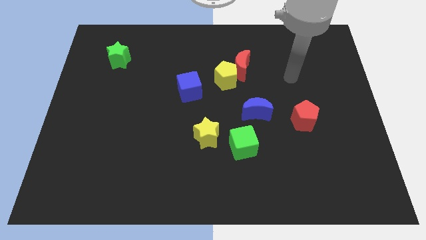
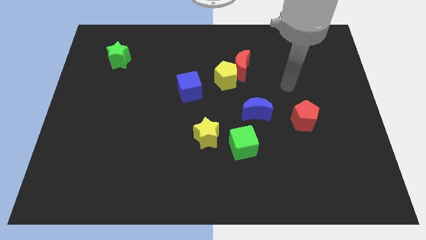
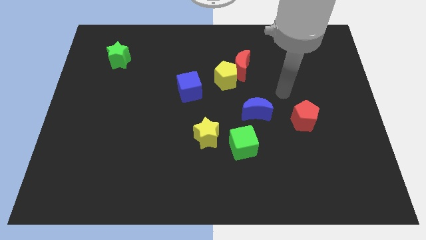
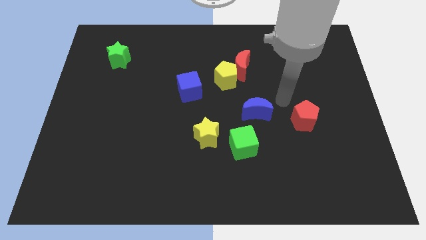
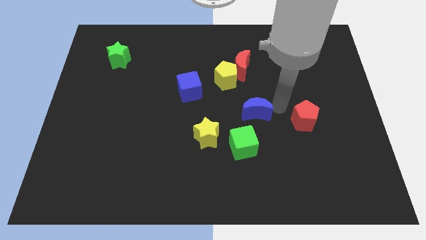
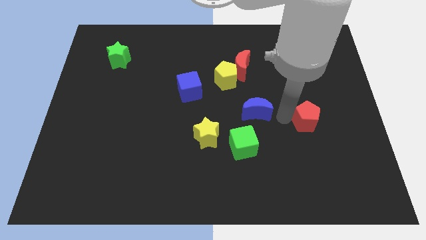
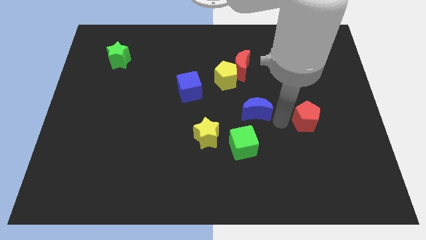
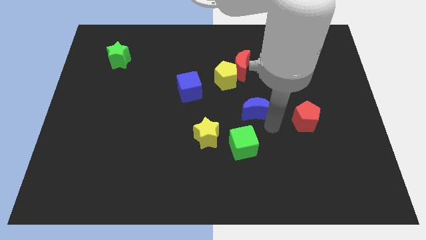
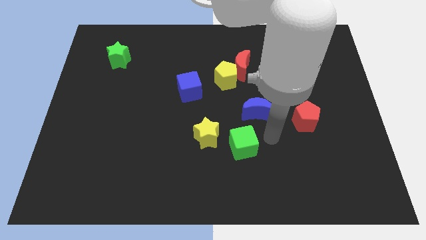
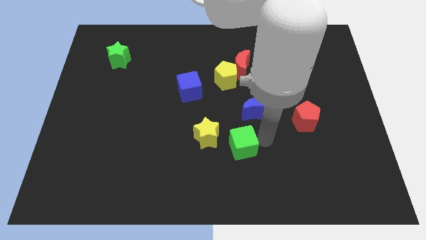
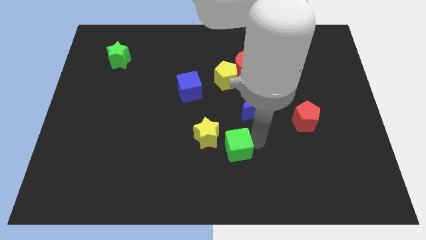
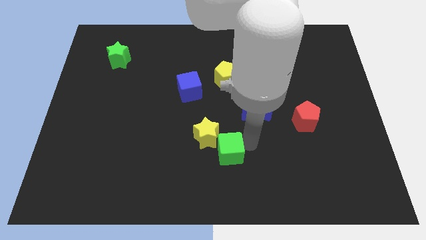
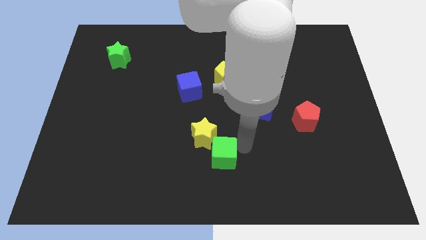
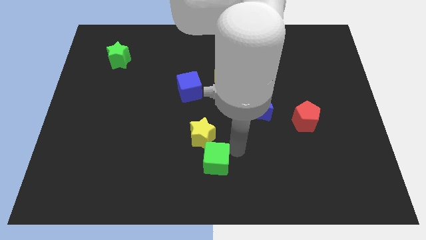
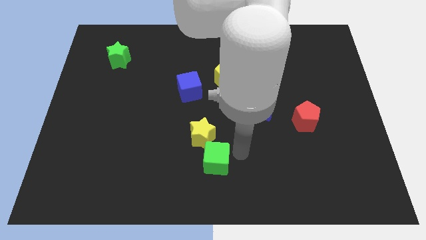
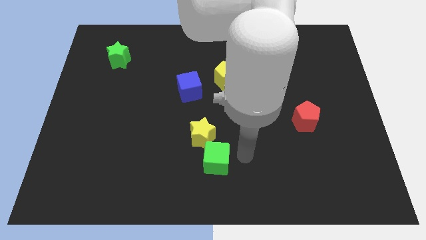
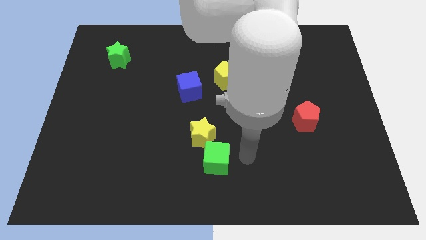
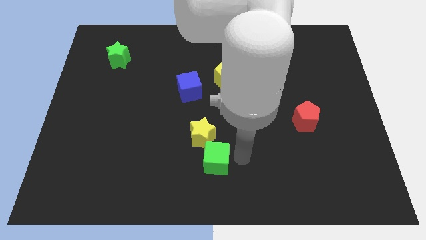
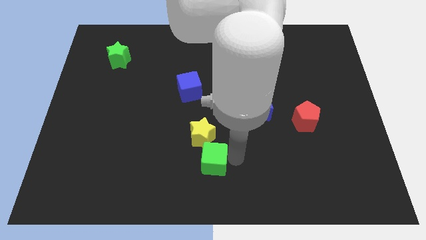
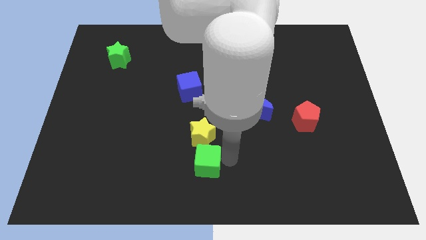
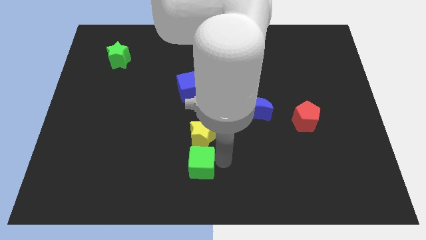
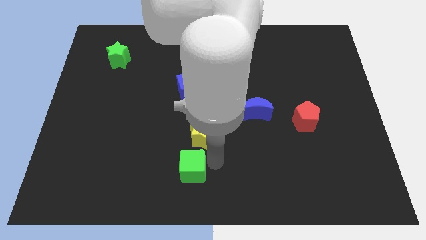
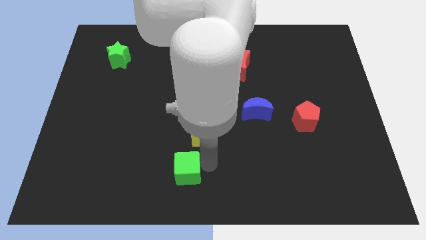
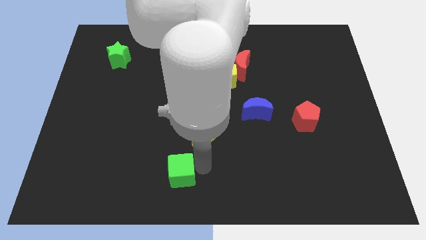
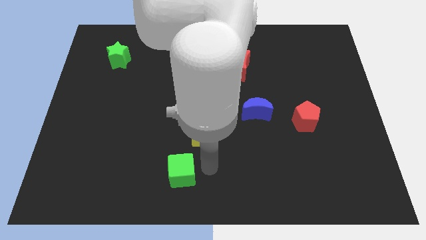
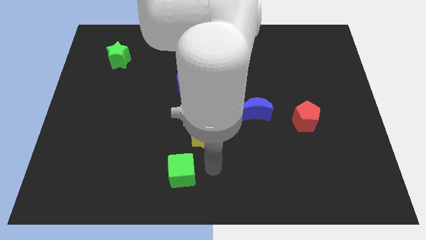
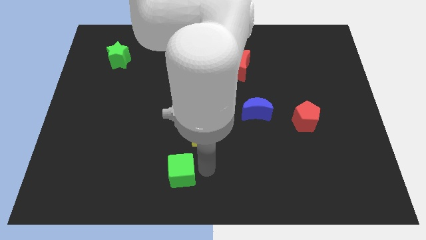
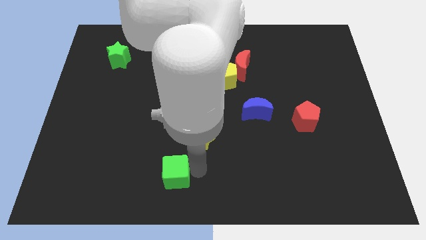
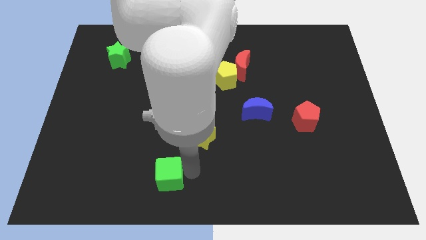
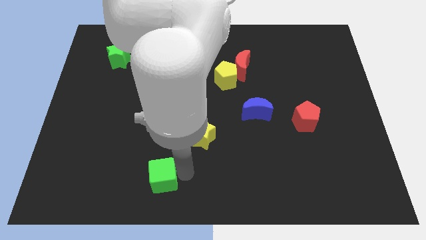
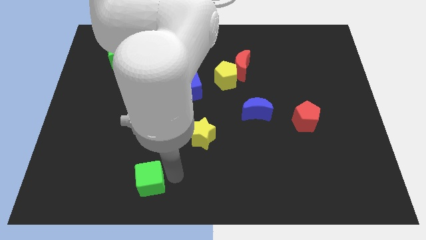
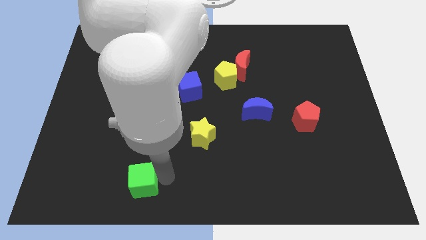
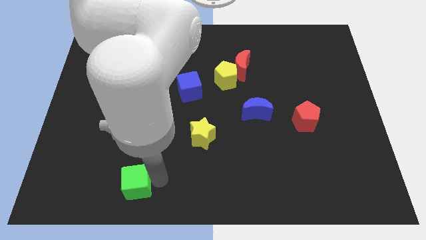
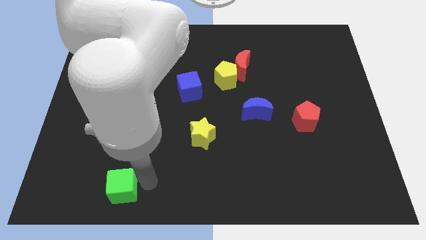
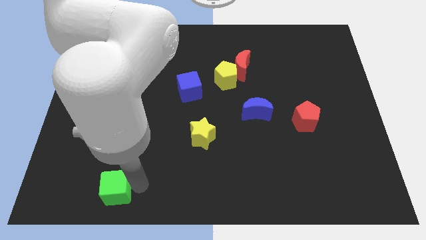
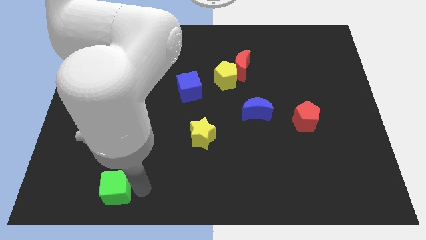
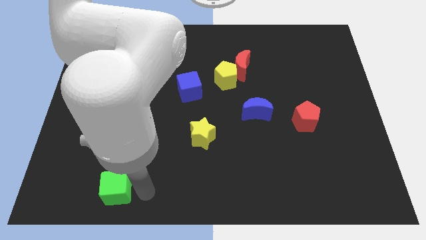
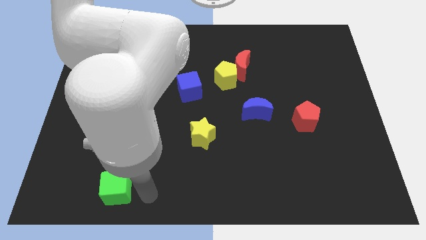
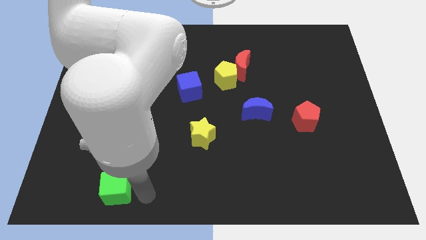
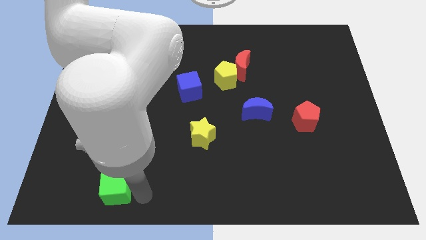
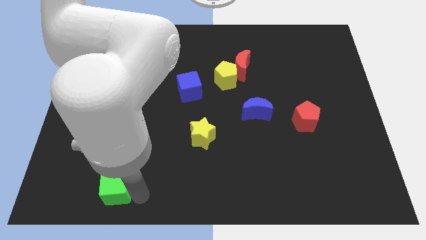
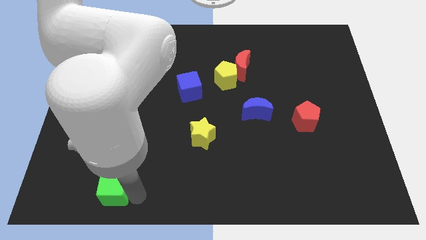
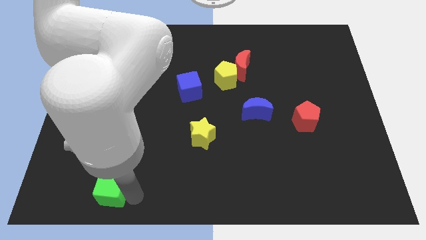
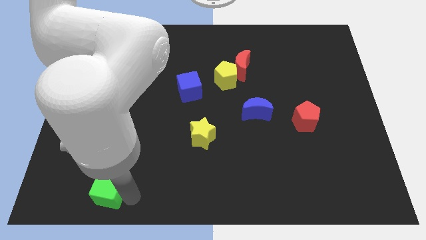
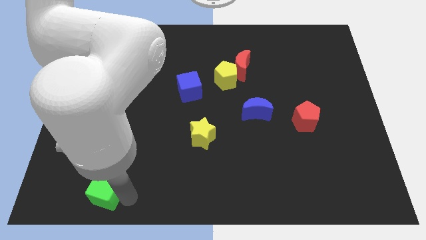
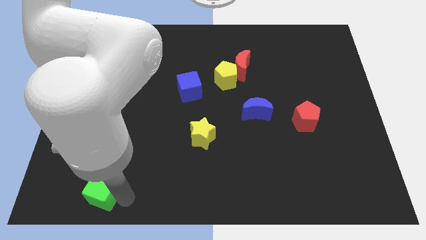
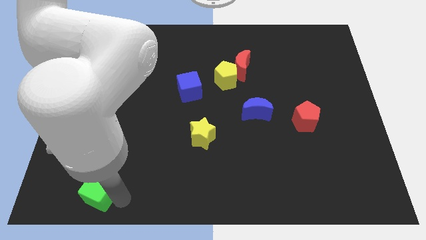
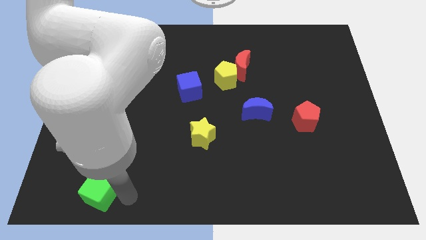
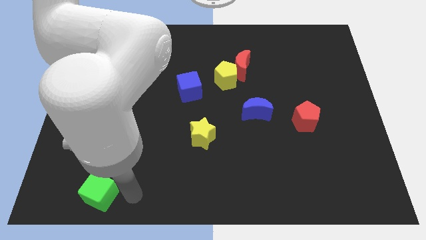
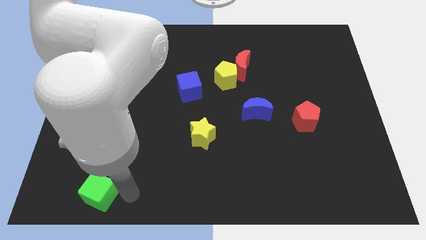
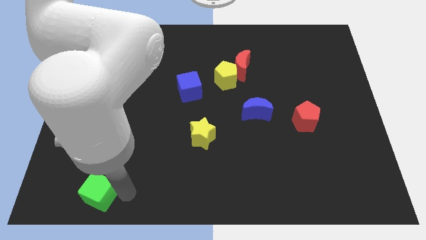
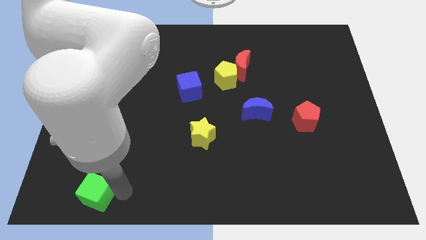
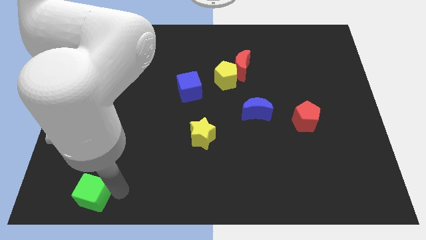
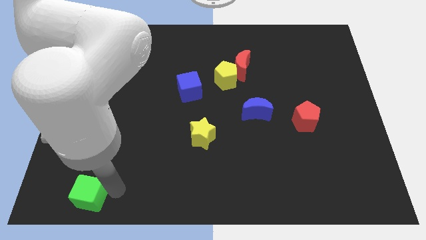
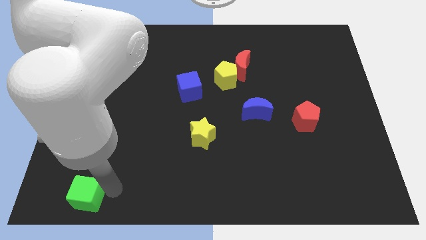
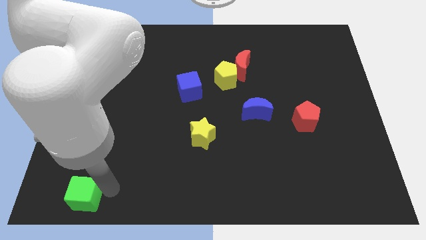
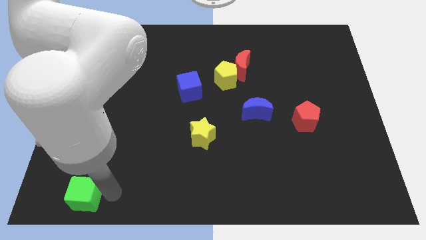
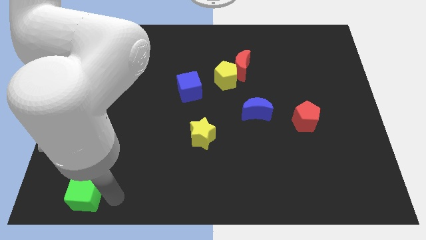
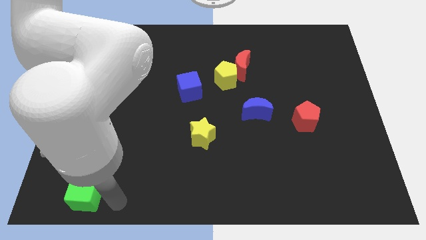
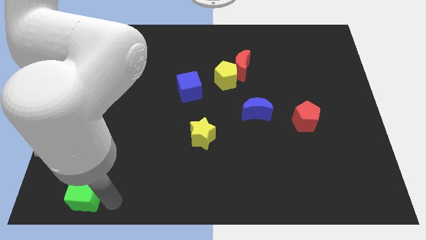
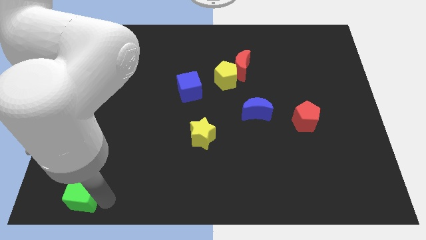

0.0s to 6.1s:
put the green cube to the bottom left

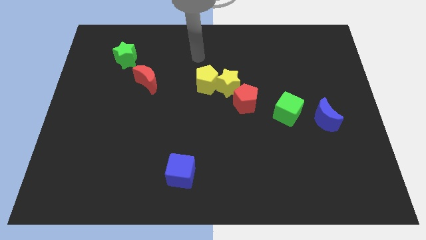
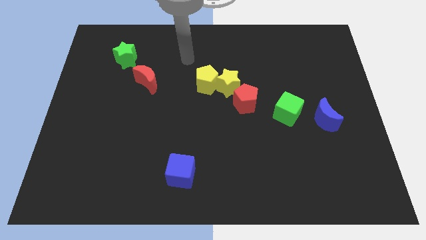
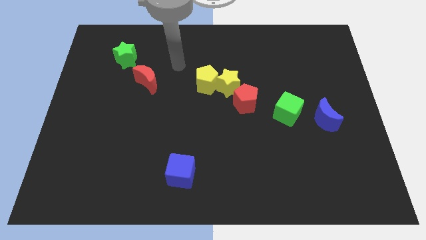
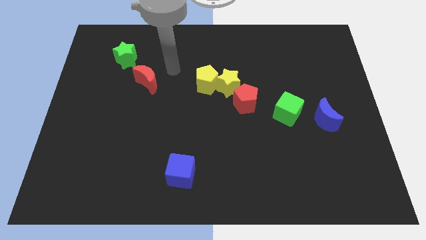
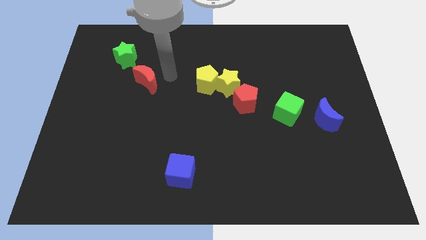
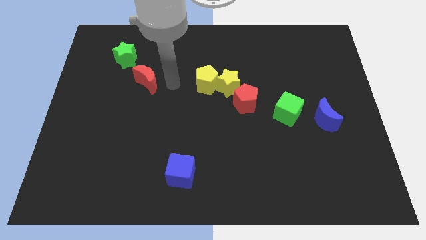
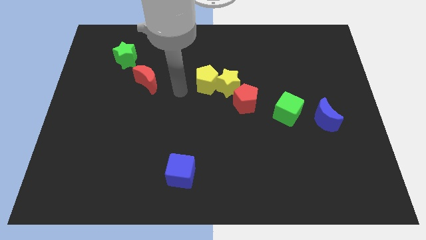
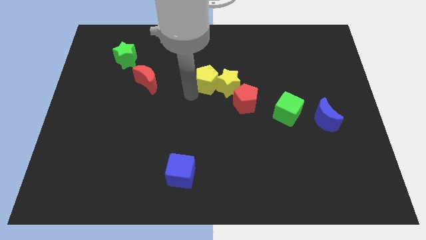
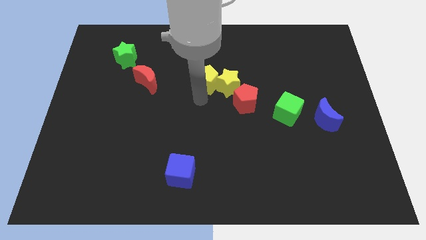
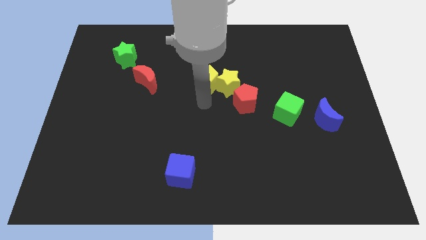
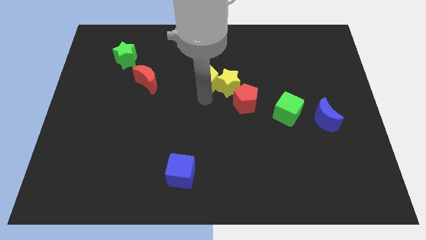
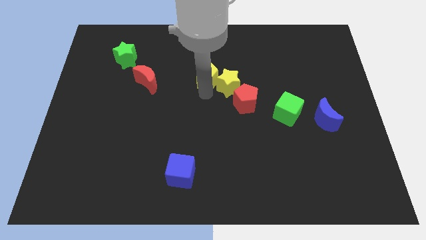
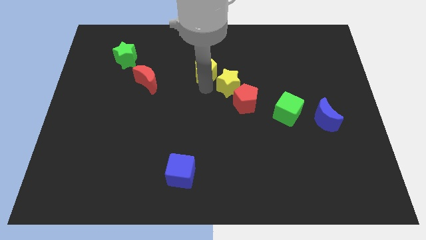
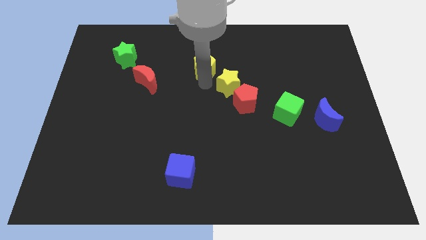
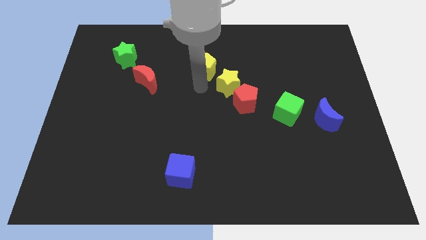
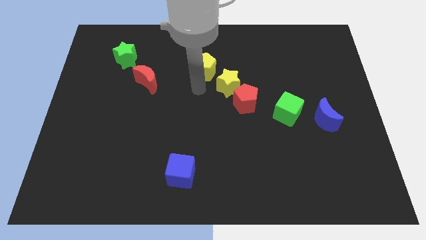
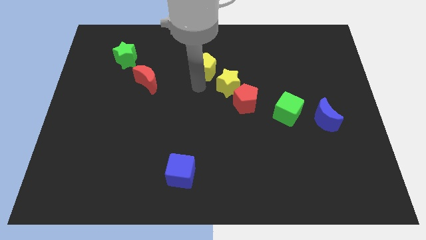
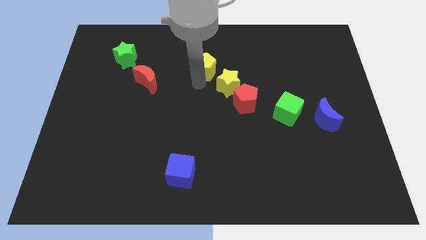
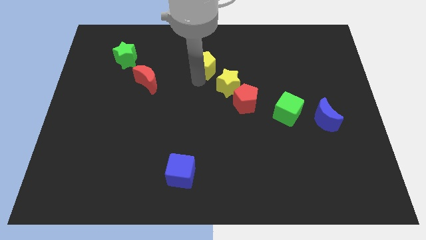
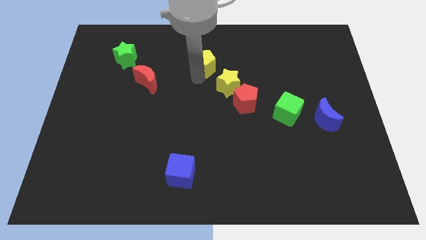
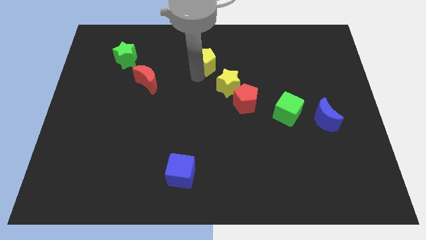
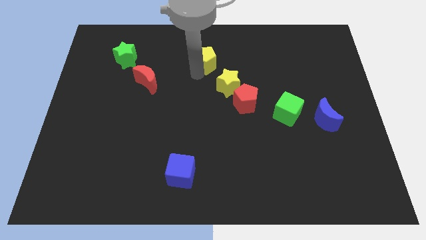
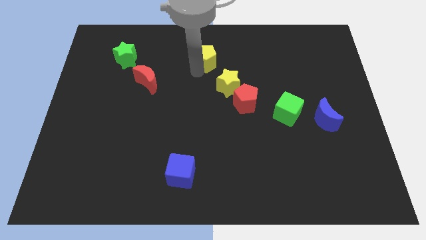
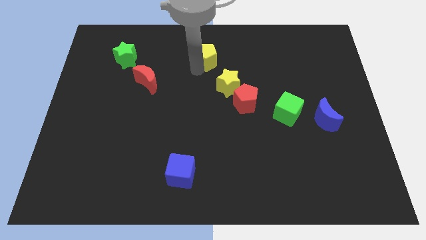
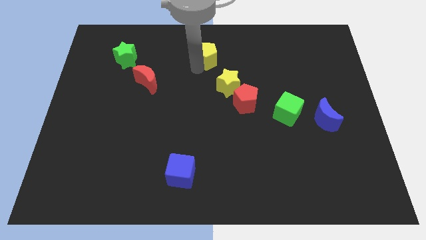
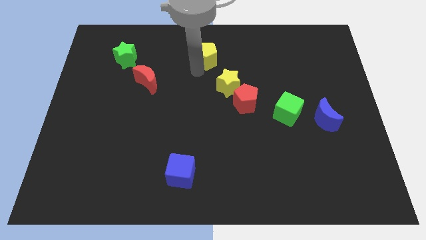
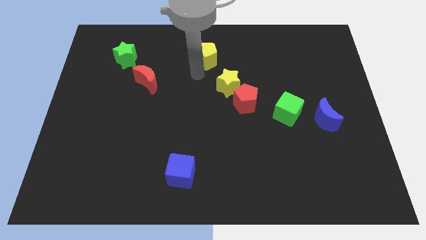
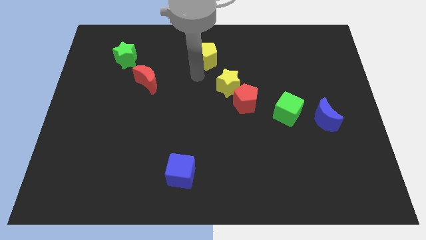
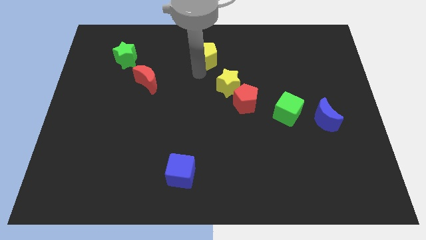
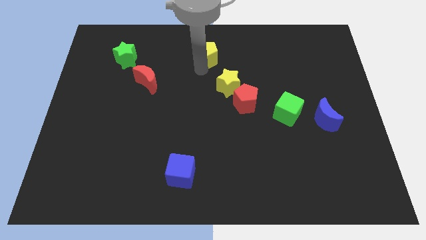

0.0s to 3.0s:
slide the yellow pentagon to the towards your base
